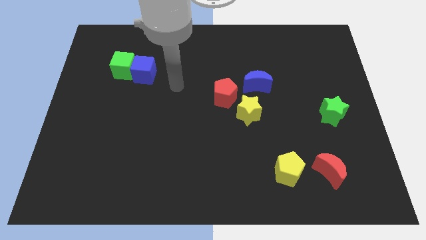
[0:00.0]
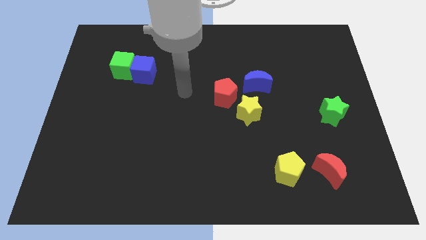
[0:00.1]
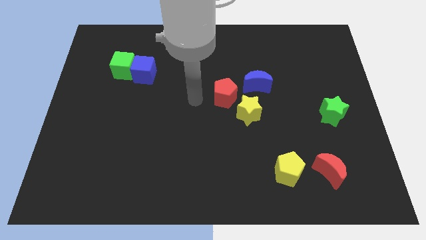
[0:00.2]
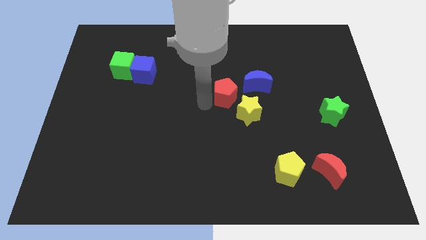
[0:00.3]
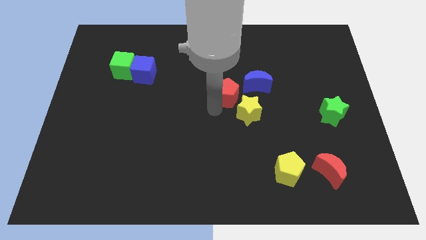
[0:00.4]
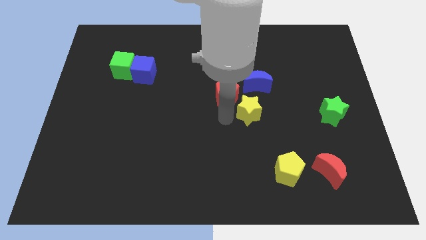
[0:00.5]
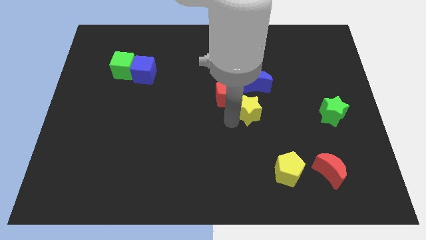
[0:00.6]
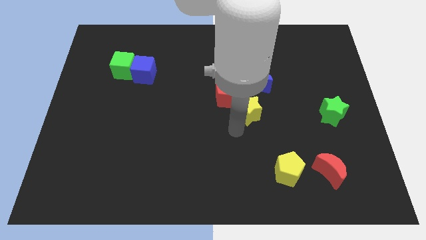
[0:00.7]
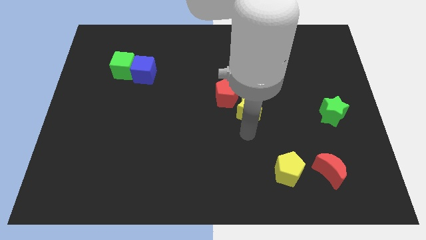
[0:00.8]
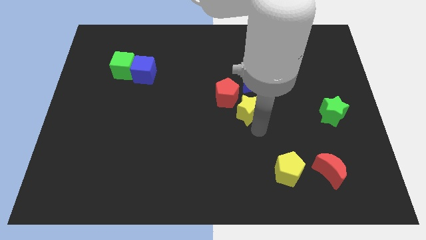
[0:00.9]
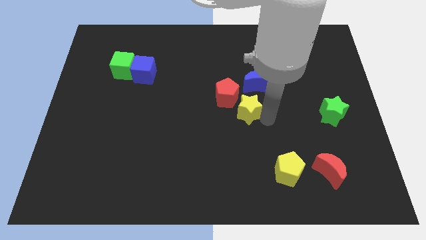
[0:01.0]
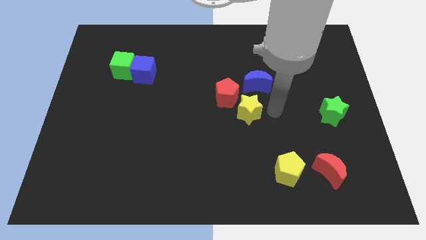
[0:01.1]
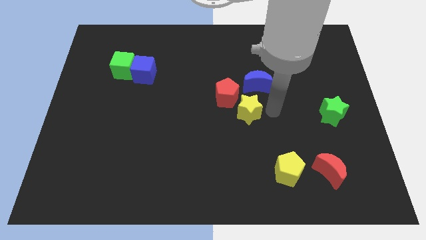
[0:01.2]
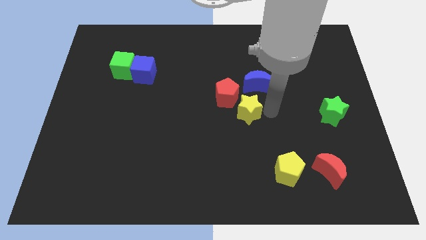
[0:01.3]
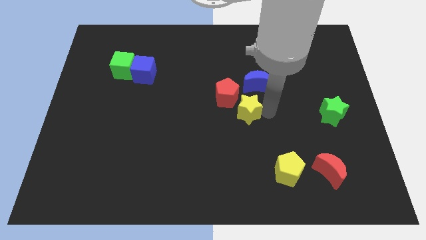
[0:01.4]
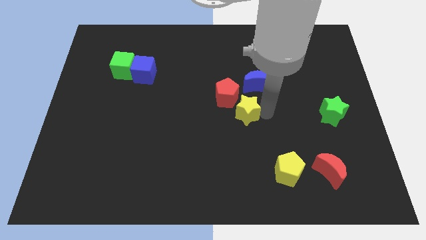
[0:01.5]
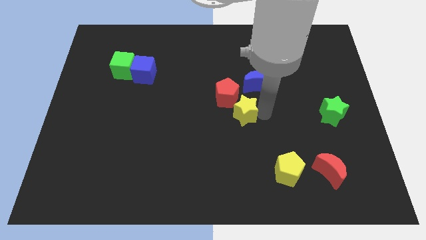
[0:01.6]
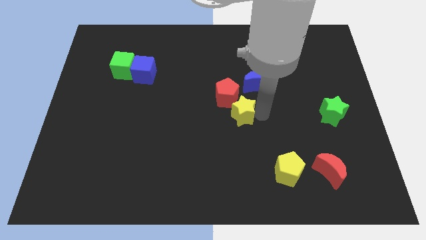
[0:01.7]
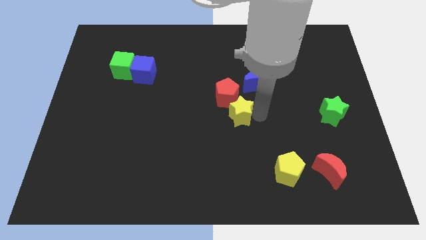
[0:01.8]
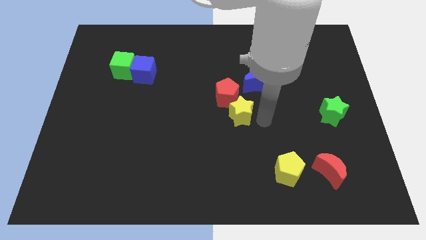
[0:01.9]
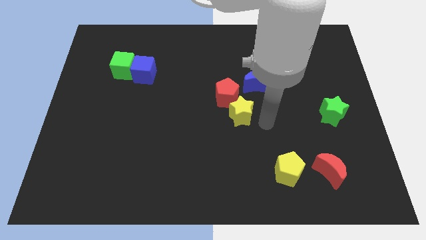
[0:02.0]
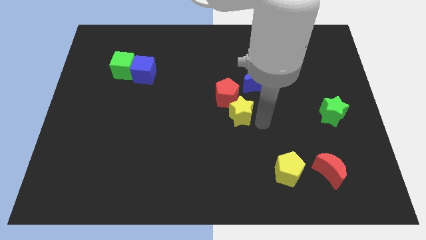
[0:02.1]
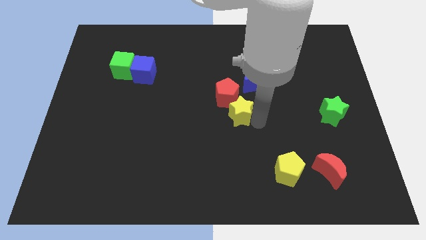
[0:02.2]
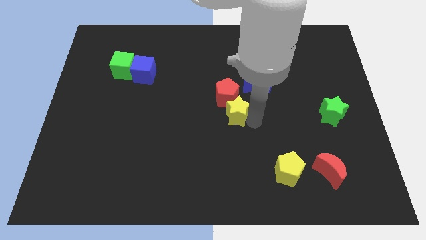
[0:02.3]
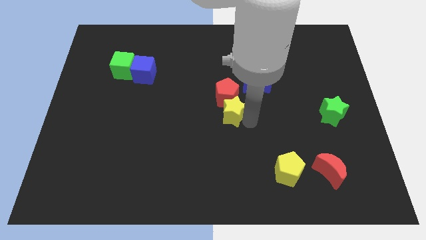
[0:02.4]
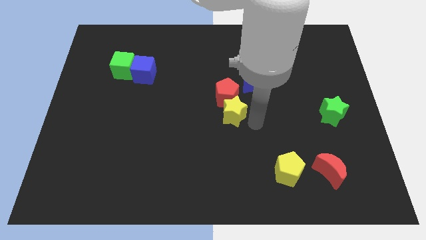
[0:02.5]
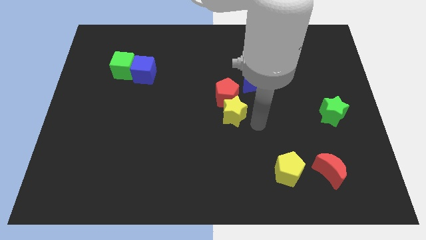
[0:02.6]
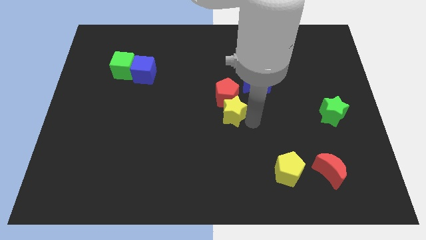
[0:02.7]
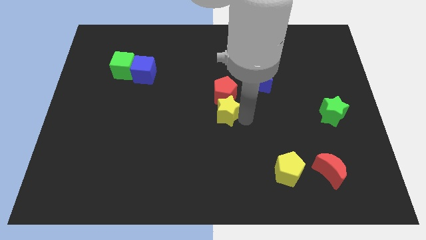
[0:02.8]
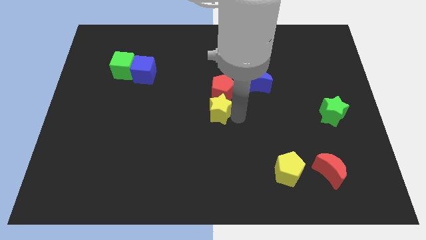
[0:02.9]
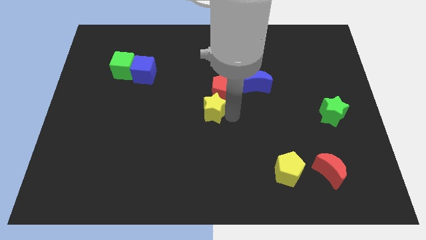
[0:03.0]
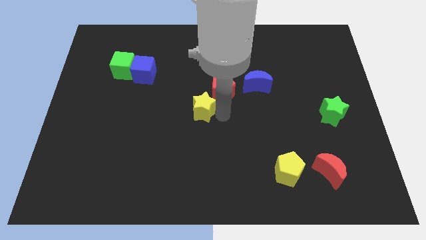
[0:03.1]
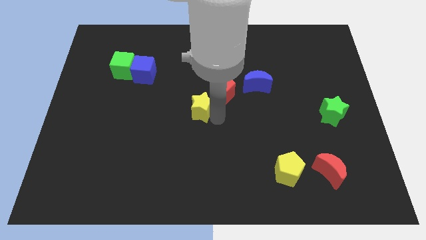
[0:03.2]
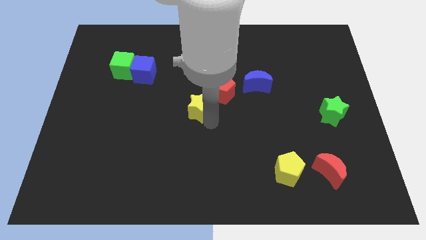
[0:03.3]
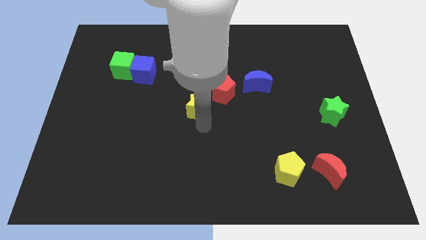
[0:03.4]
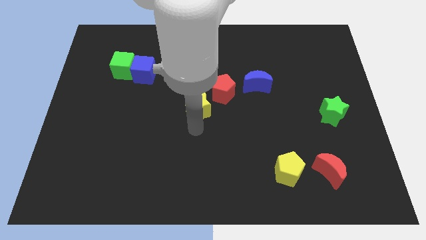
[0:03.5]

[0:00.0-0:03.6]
move the yellow star upwards and left diagonally somewhat

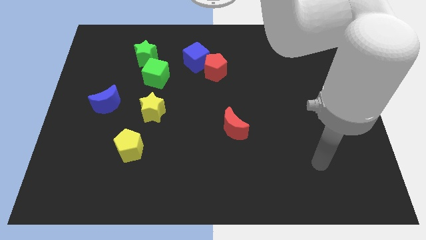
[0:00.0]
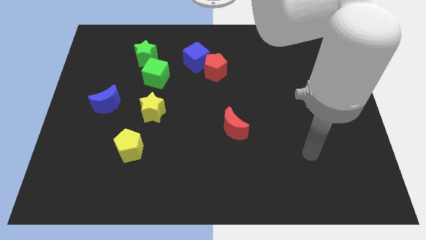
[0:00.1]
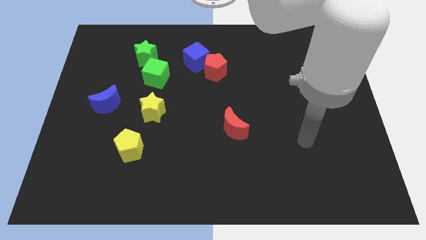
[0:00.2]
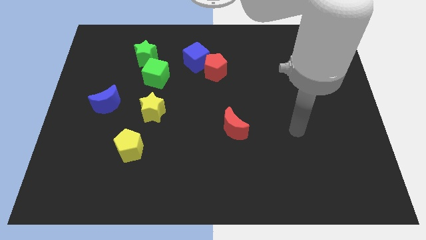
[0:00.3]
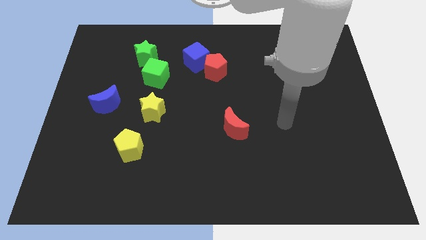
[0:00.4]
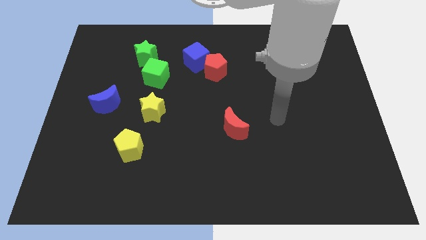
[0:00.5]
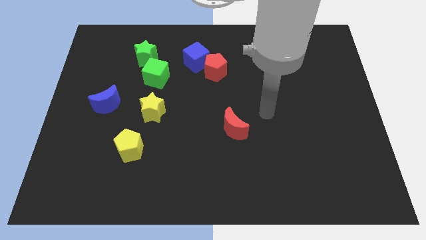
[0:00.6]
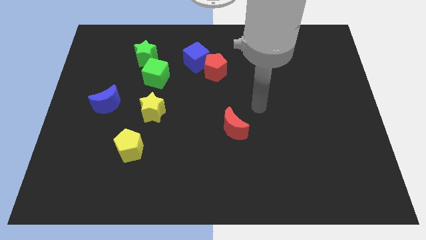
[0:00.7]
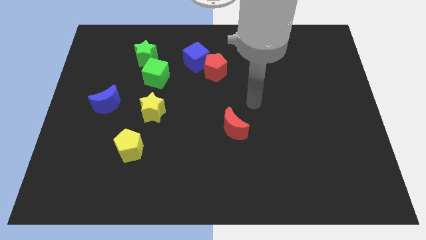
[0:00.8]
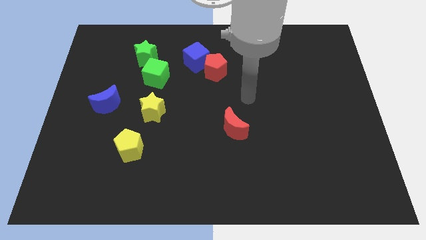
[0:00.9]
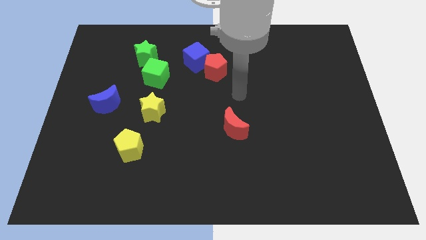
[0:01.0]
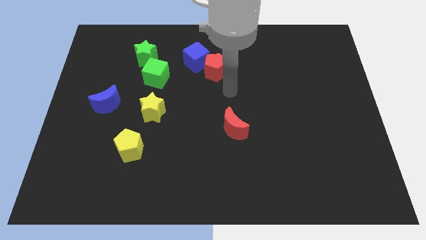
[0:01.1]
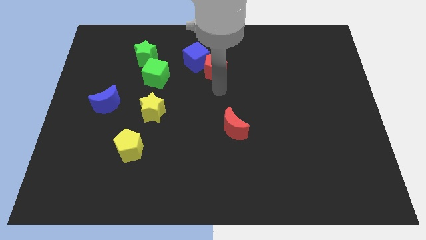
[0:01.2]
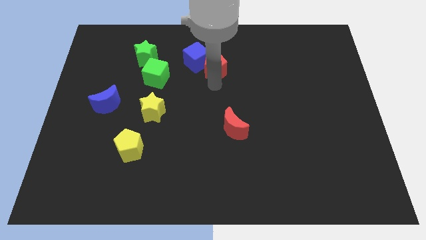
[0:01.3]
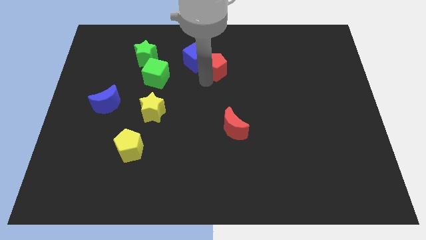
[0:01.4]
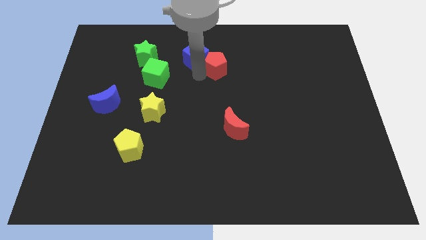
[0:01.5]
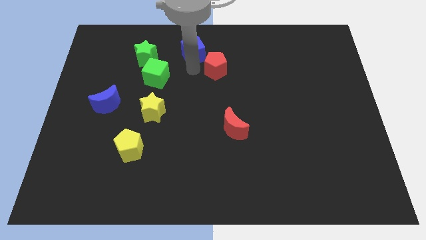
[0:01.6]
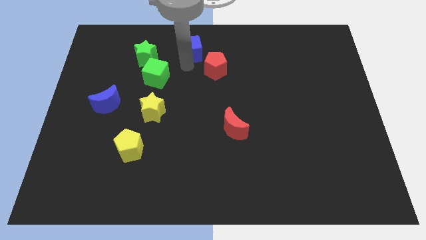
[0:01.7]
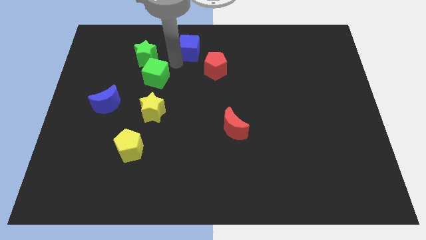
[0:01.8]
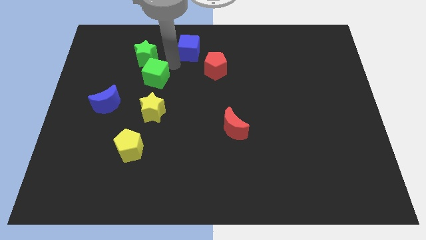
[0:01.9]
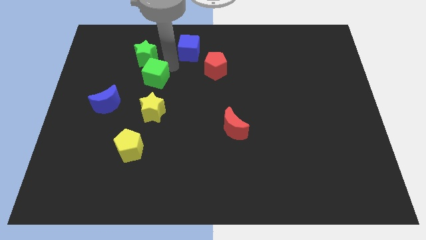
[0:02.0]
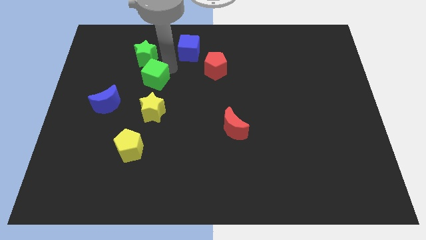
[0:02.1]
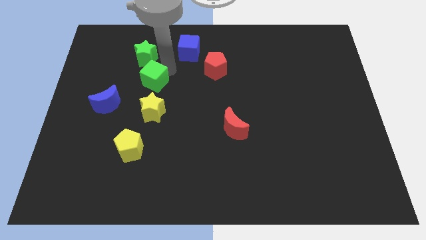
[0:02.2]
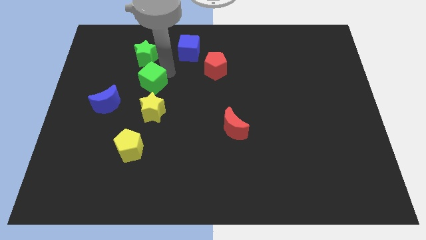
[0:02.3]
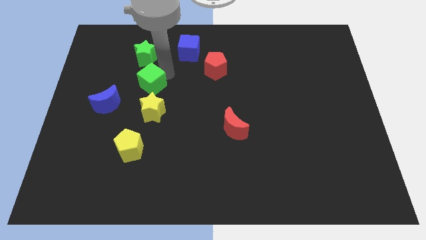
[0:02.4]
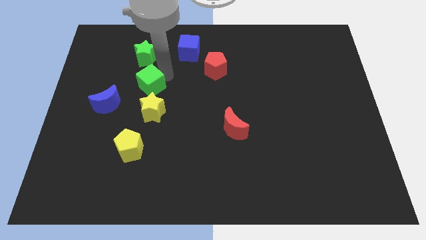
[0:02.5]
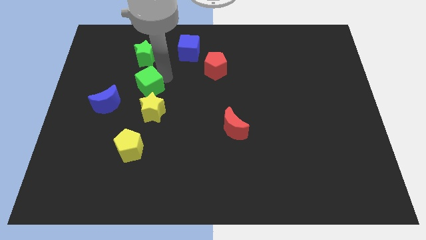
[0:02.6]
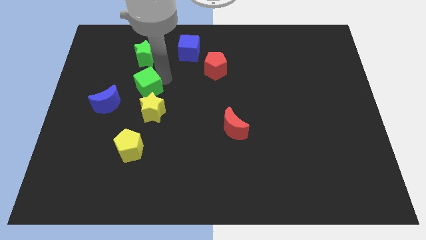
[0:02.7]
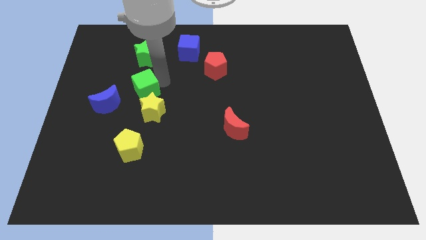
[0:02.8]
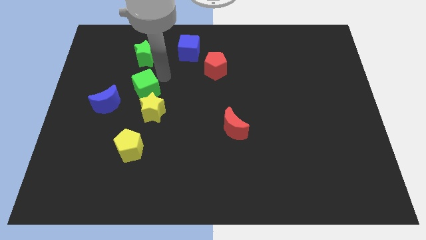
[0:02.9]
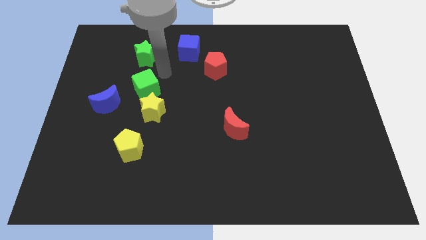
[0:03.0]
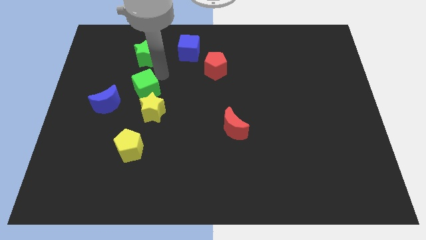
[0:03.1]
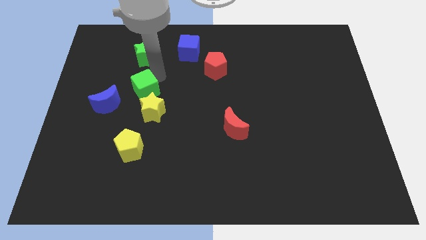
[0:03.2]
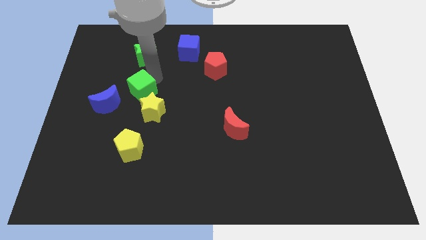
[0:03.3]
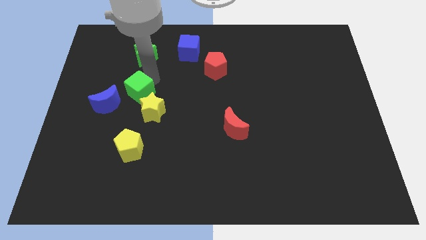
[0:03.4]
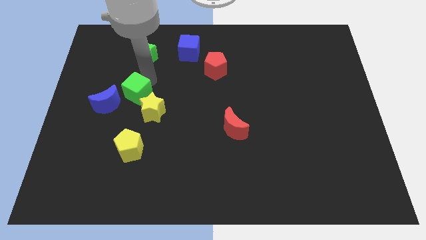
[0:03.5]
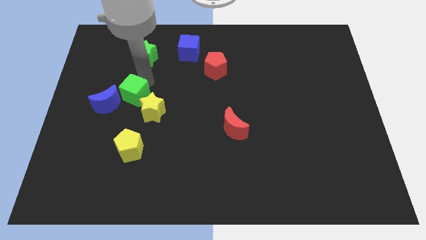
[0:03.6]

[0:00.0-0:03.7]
slightly move the green cube downwards and then left

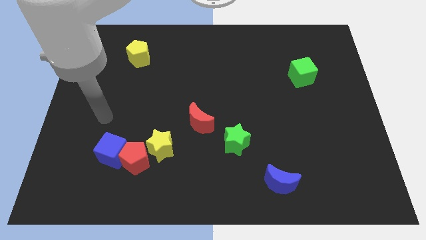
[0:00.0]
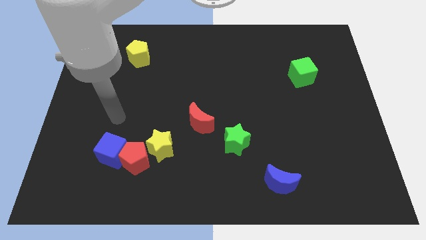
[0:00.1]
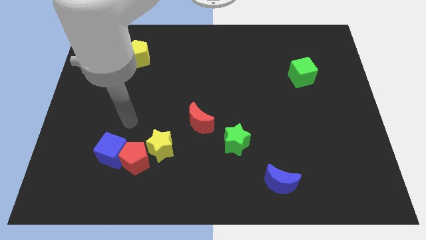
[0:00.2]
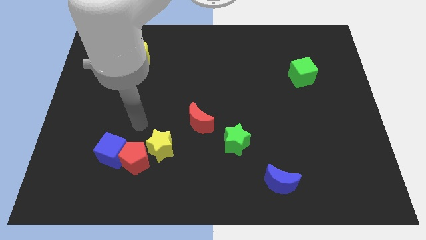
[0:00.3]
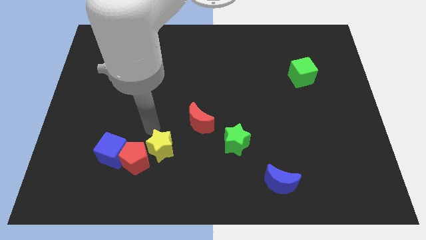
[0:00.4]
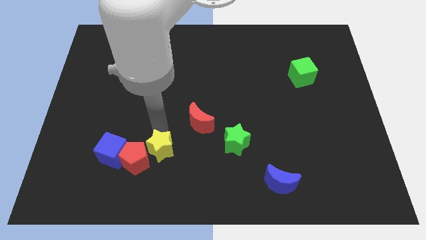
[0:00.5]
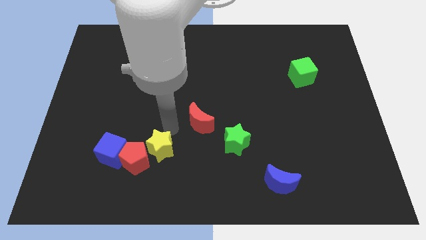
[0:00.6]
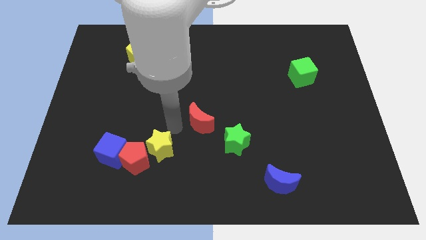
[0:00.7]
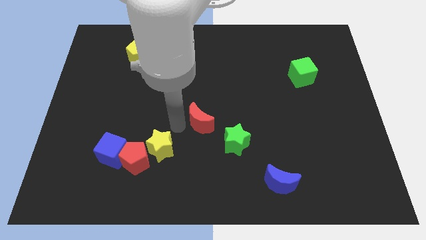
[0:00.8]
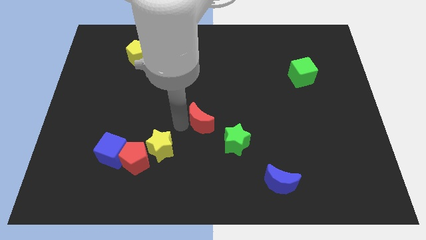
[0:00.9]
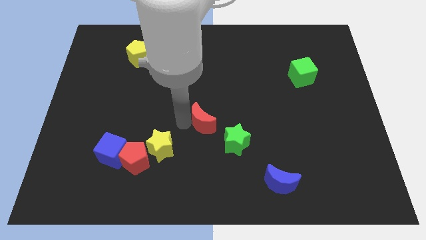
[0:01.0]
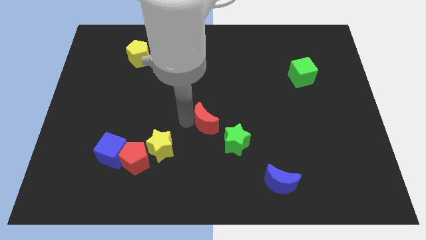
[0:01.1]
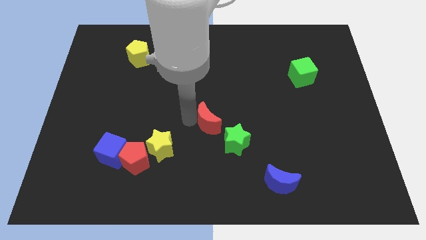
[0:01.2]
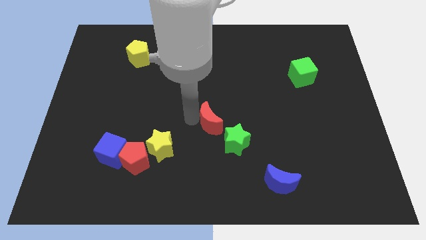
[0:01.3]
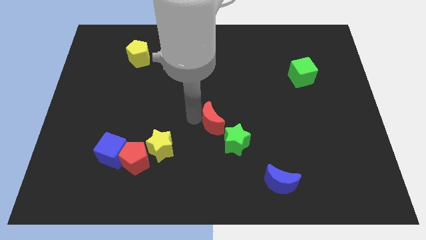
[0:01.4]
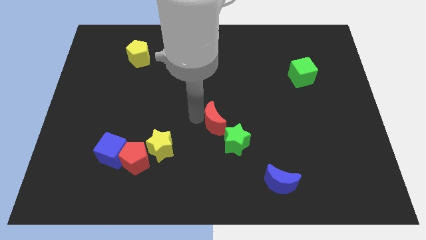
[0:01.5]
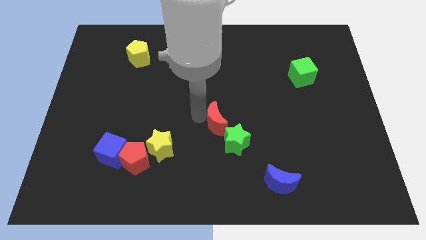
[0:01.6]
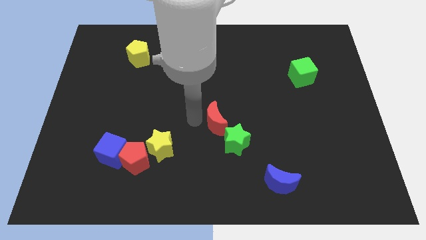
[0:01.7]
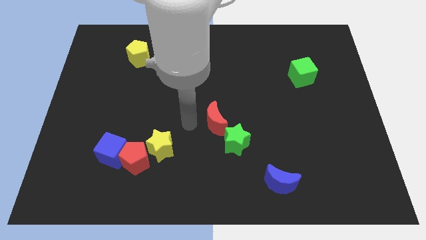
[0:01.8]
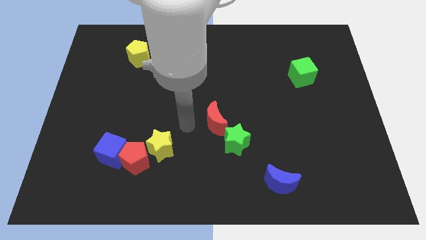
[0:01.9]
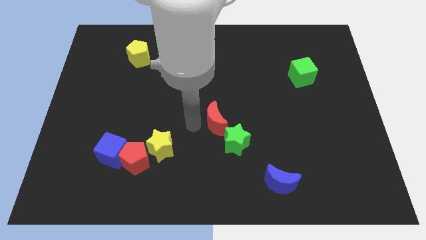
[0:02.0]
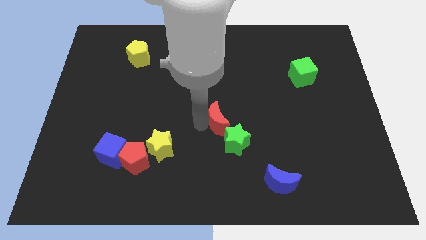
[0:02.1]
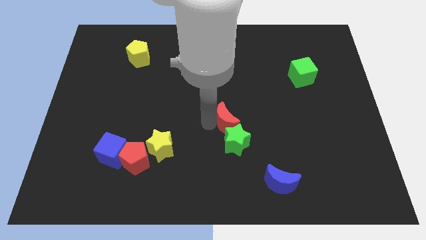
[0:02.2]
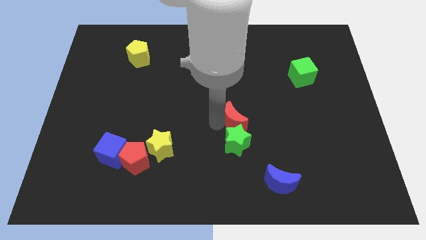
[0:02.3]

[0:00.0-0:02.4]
push the red moon right somewhat
